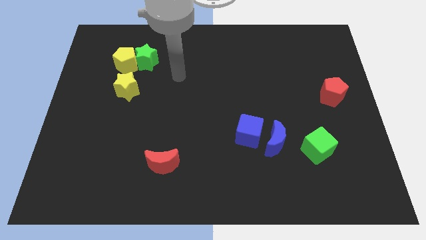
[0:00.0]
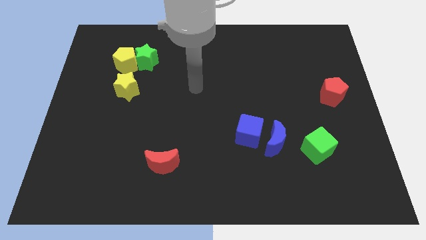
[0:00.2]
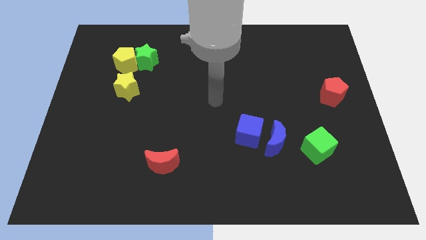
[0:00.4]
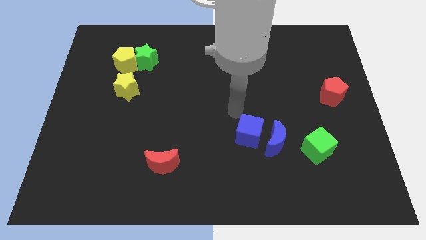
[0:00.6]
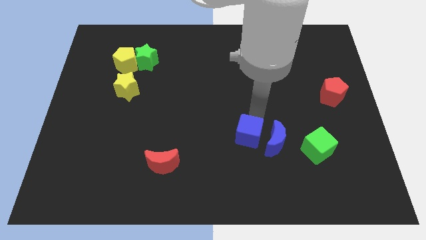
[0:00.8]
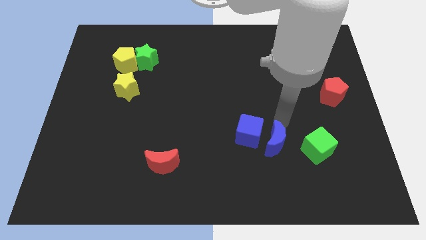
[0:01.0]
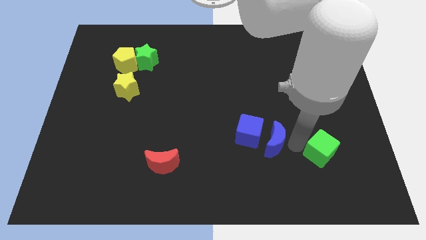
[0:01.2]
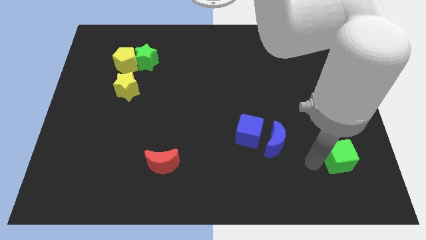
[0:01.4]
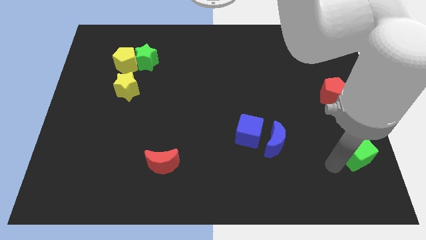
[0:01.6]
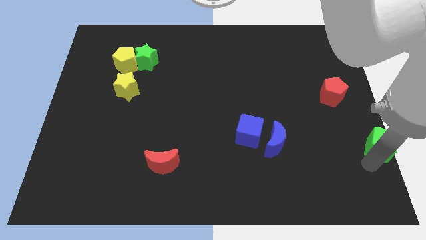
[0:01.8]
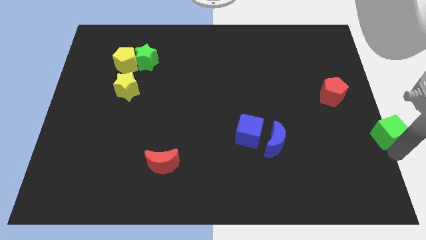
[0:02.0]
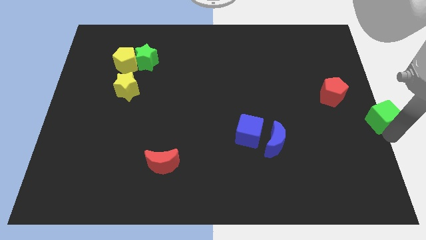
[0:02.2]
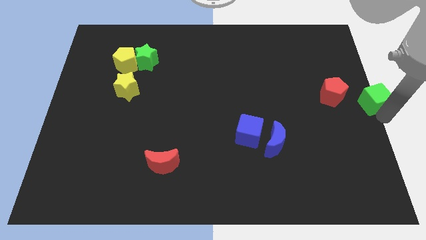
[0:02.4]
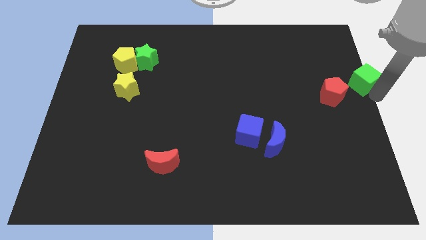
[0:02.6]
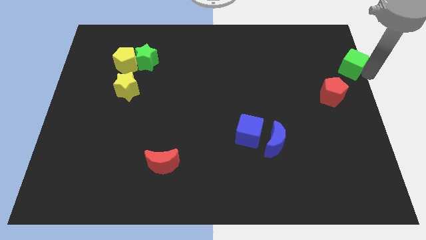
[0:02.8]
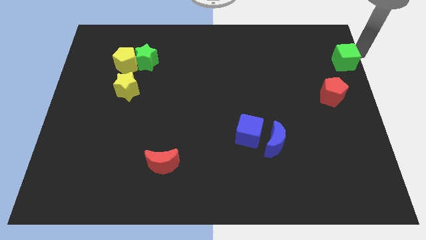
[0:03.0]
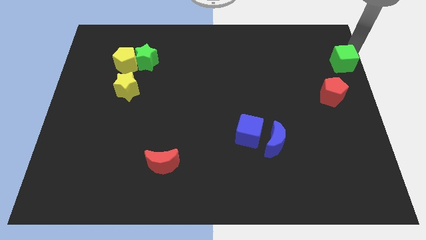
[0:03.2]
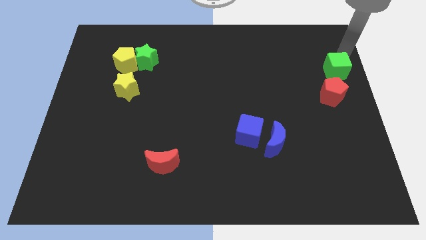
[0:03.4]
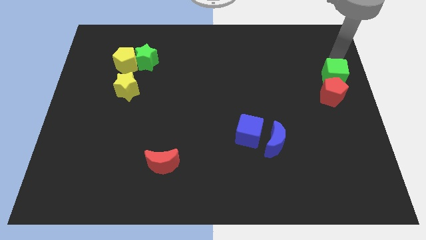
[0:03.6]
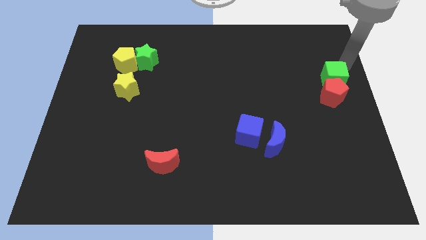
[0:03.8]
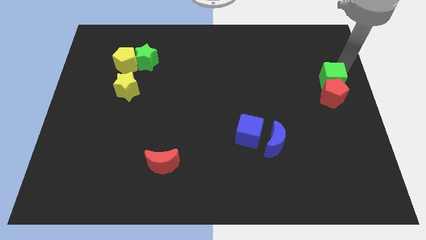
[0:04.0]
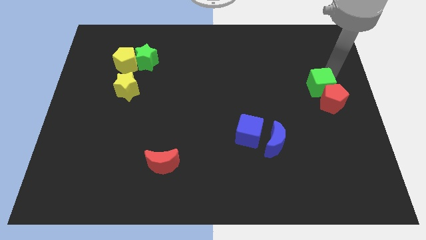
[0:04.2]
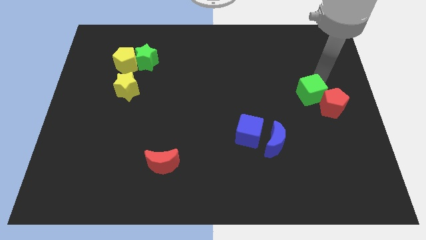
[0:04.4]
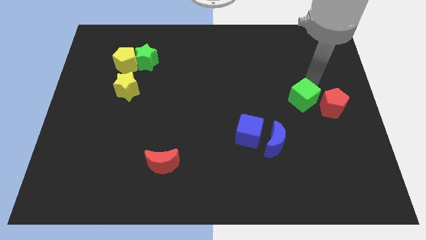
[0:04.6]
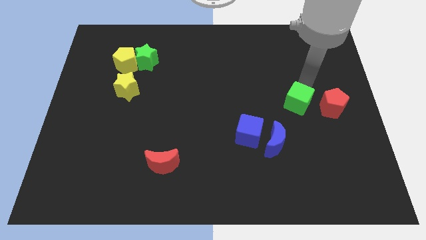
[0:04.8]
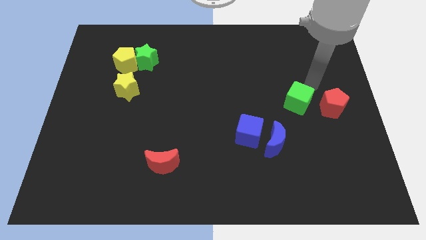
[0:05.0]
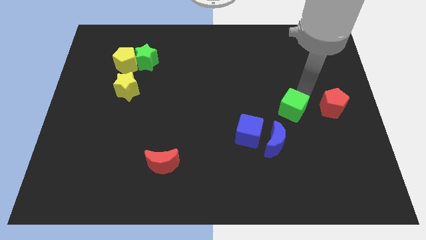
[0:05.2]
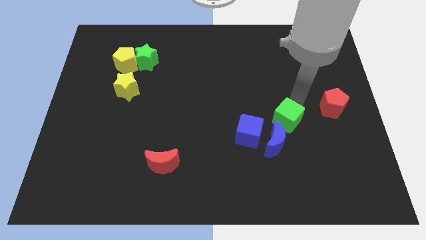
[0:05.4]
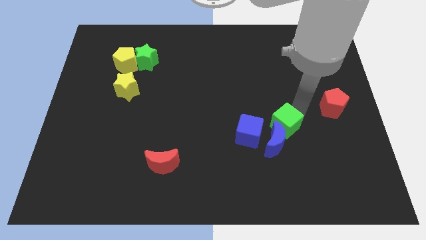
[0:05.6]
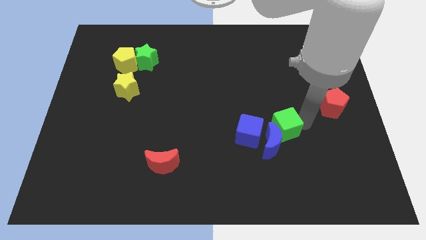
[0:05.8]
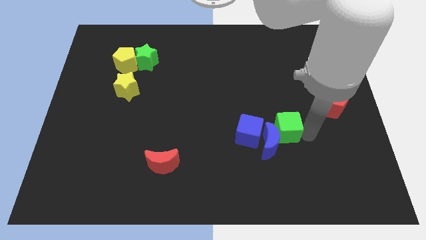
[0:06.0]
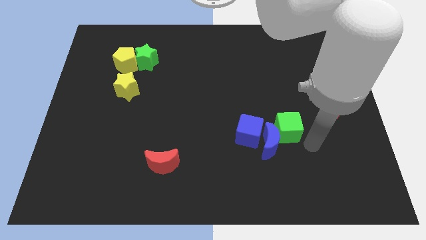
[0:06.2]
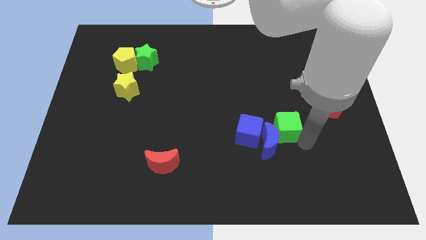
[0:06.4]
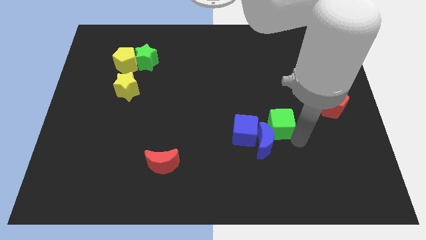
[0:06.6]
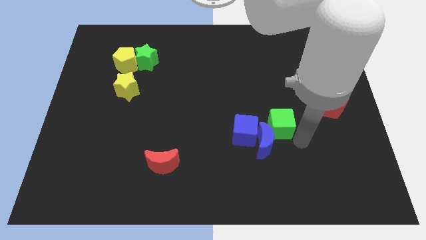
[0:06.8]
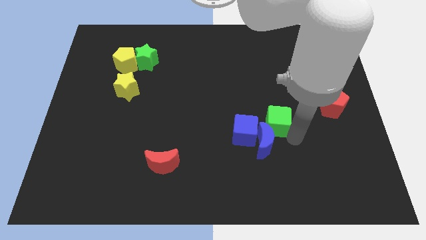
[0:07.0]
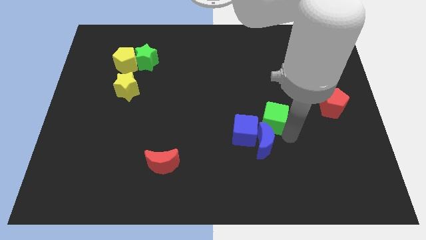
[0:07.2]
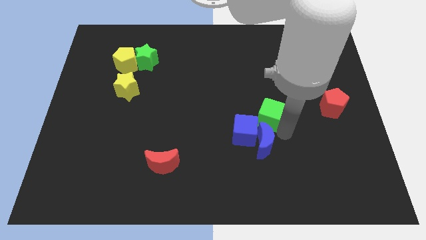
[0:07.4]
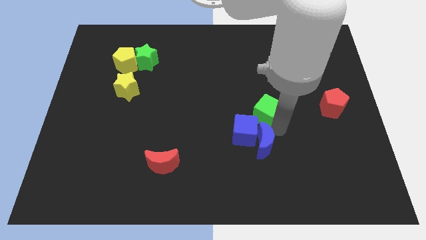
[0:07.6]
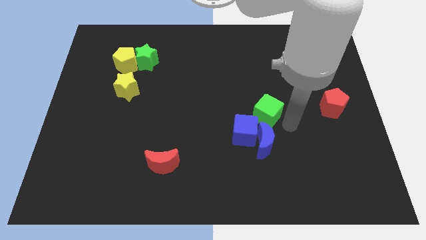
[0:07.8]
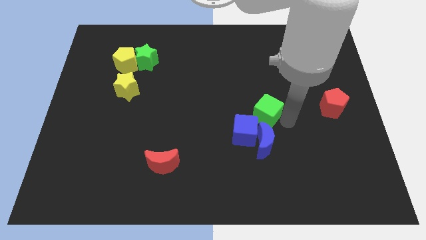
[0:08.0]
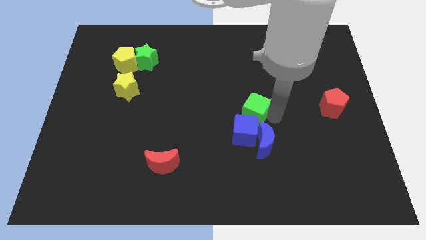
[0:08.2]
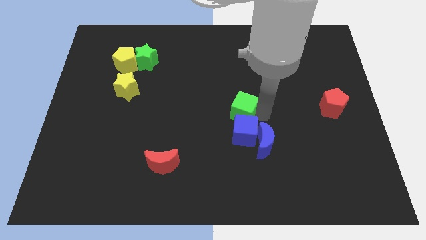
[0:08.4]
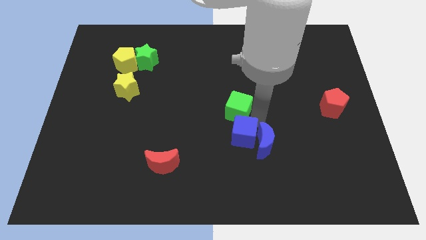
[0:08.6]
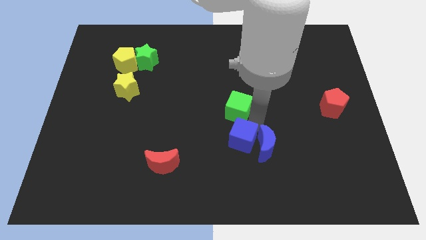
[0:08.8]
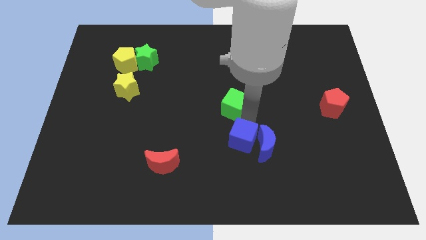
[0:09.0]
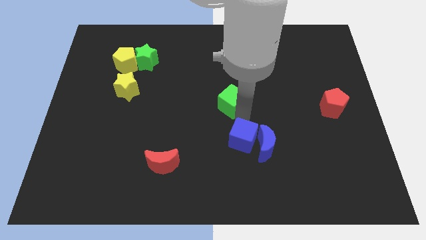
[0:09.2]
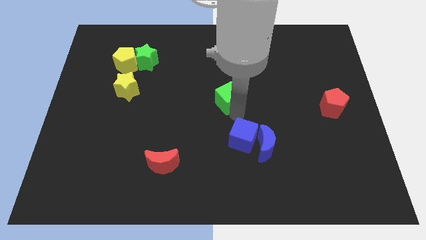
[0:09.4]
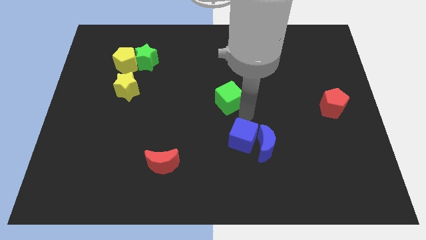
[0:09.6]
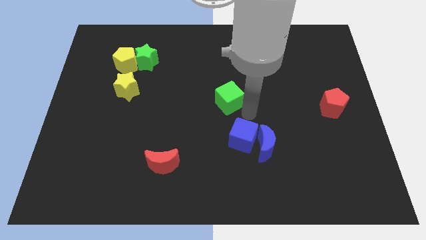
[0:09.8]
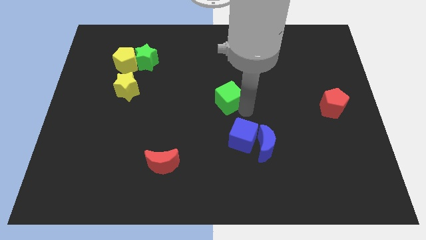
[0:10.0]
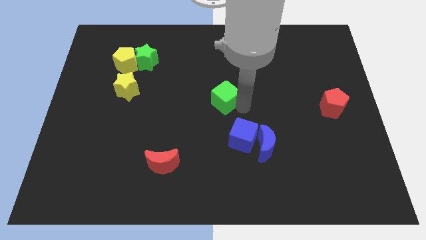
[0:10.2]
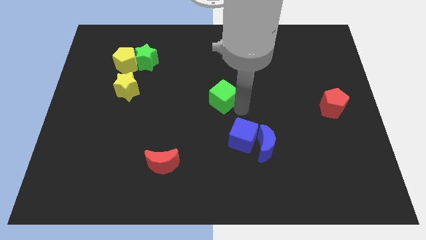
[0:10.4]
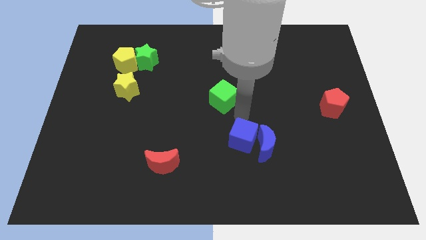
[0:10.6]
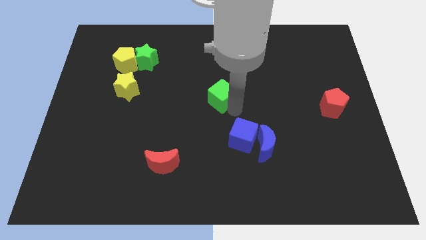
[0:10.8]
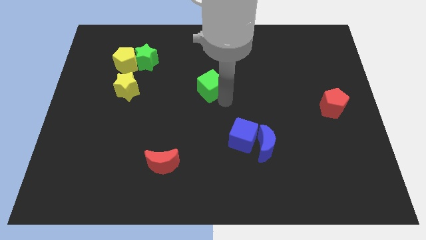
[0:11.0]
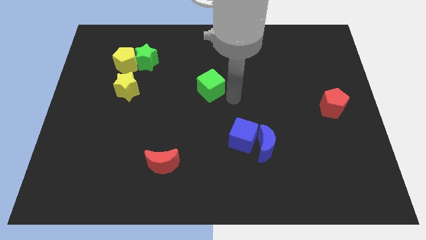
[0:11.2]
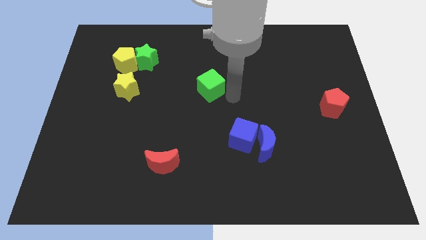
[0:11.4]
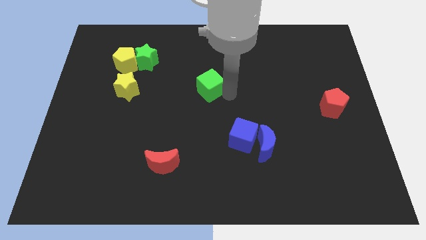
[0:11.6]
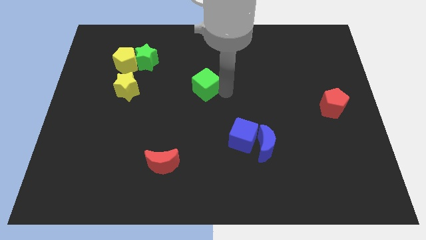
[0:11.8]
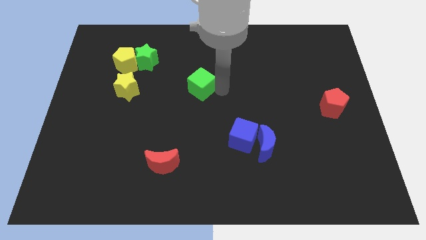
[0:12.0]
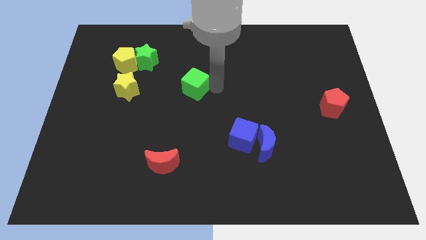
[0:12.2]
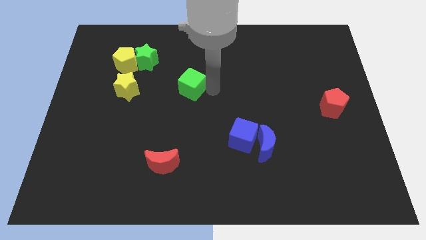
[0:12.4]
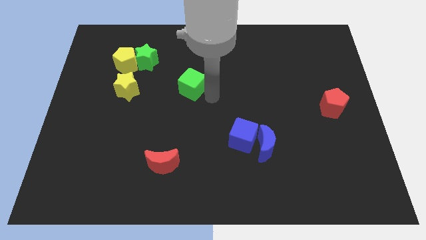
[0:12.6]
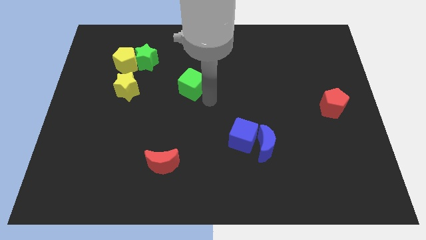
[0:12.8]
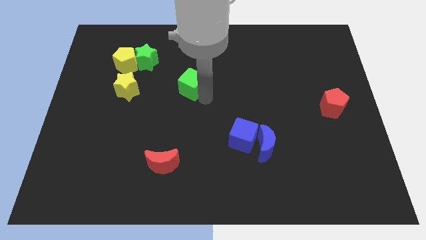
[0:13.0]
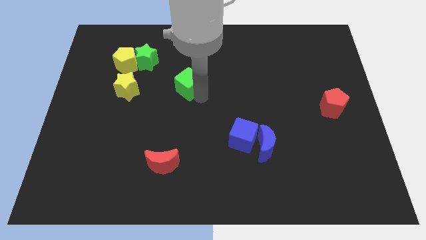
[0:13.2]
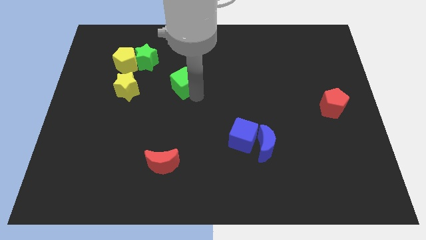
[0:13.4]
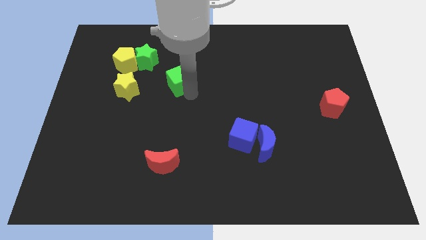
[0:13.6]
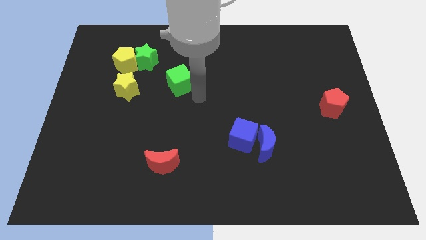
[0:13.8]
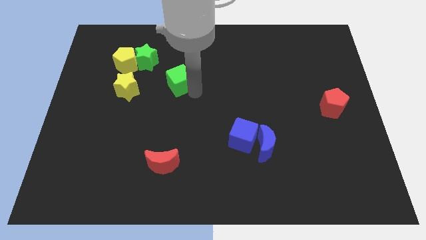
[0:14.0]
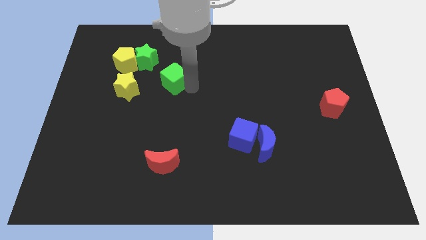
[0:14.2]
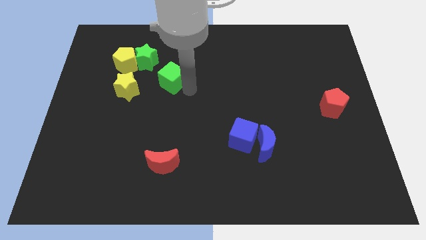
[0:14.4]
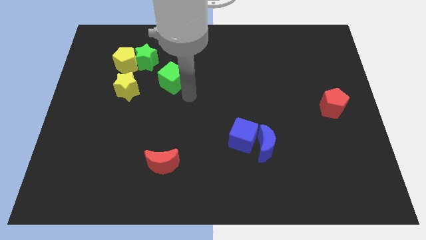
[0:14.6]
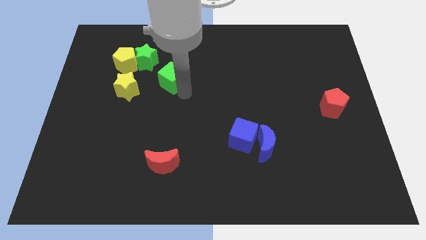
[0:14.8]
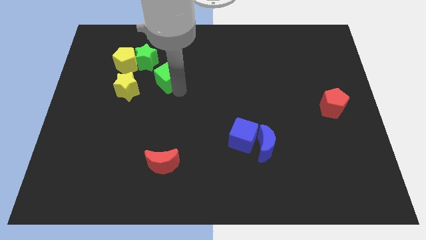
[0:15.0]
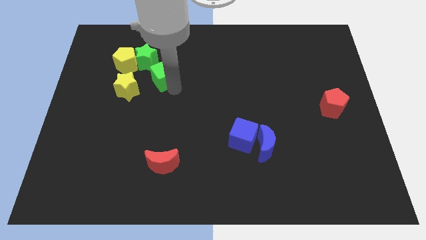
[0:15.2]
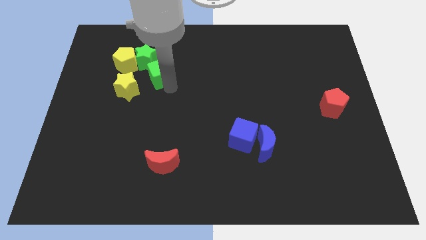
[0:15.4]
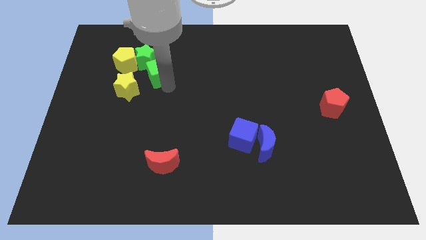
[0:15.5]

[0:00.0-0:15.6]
push the green cube close to the green star
